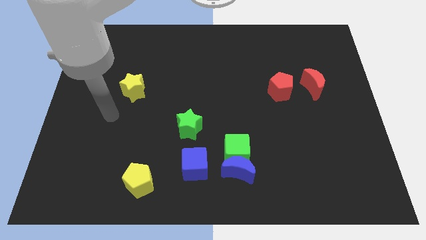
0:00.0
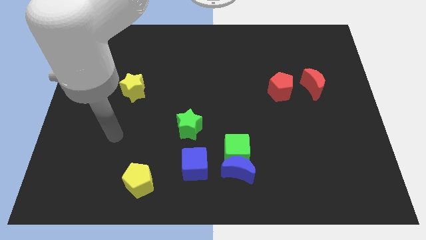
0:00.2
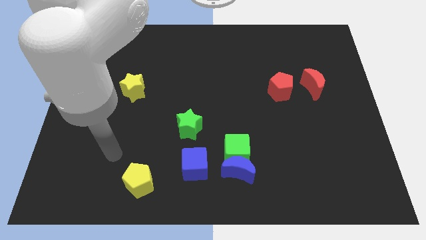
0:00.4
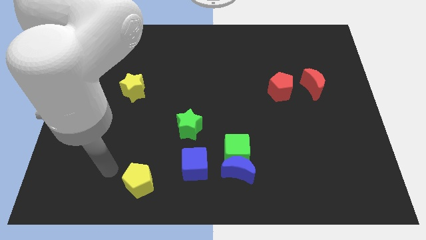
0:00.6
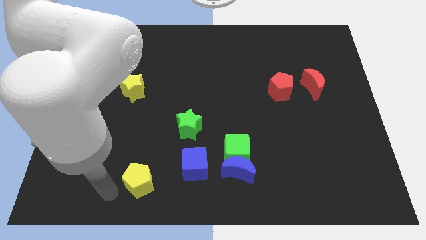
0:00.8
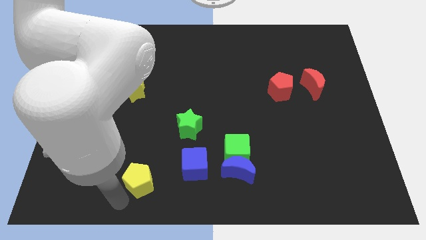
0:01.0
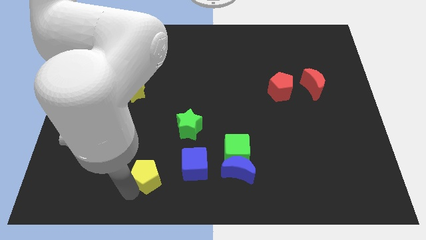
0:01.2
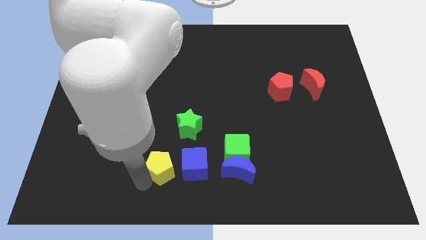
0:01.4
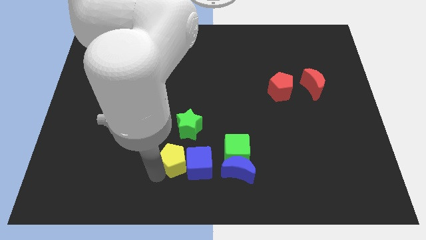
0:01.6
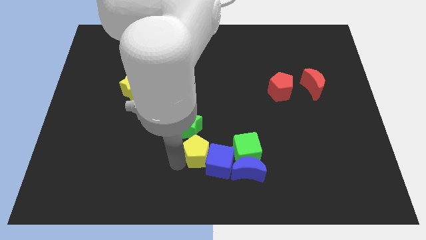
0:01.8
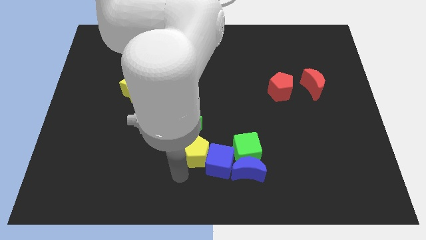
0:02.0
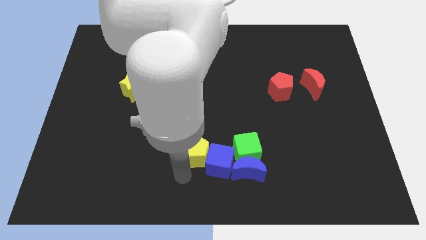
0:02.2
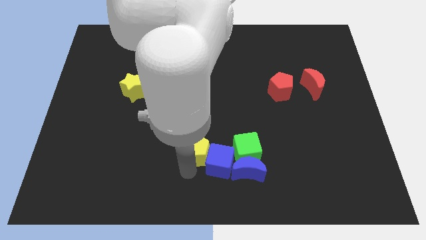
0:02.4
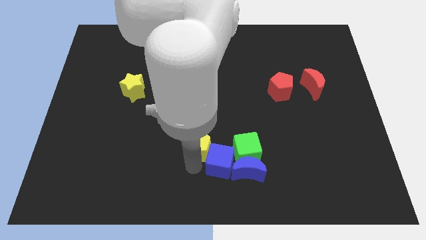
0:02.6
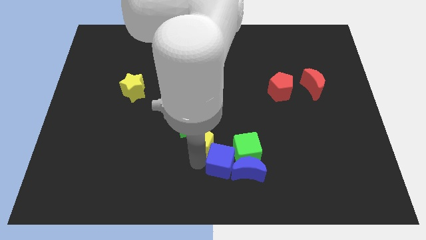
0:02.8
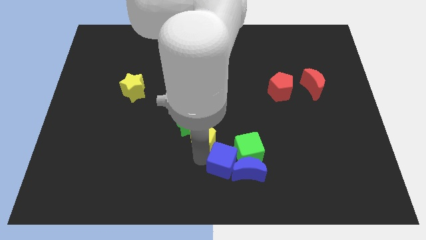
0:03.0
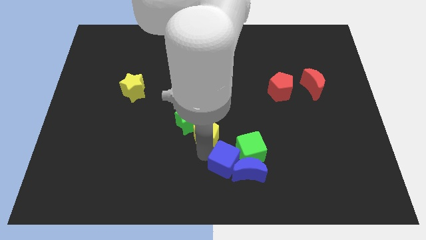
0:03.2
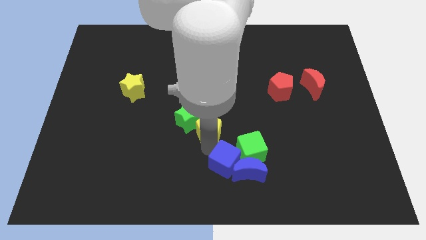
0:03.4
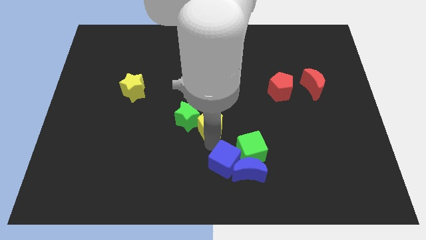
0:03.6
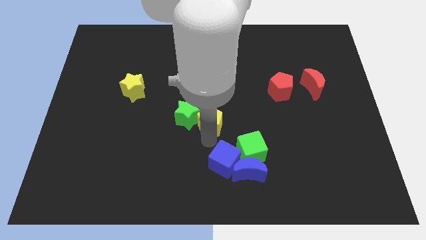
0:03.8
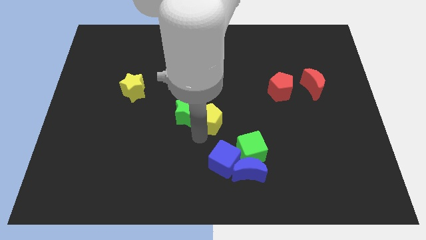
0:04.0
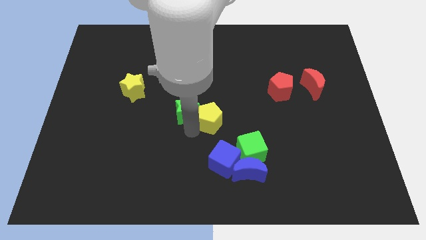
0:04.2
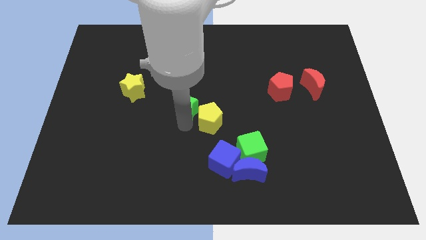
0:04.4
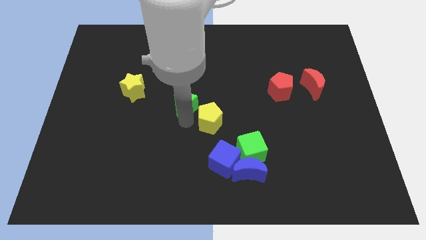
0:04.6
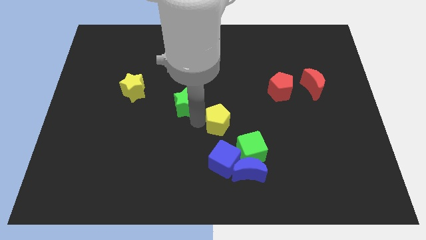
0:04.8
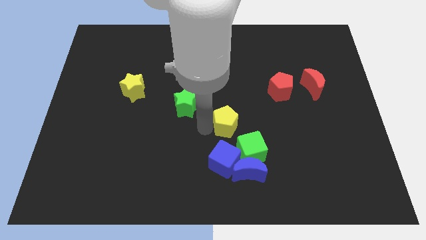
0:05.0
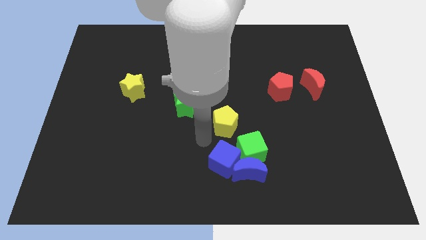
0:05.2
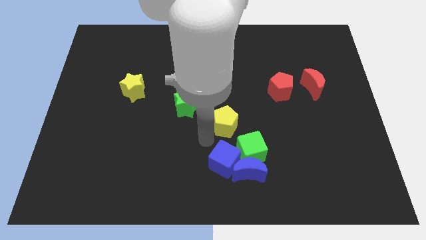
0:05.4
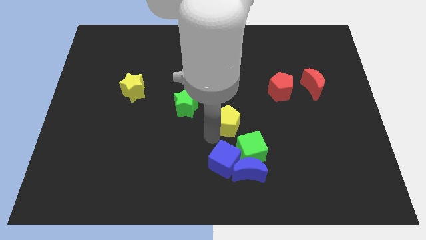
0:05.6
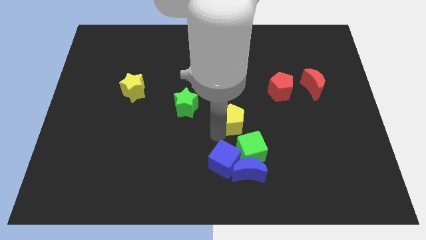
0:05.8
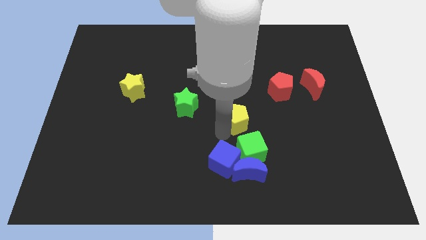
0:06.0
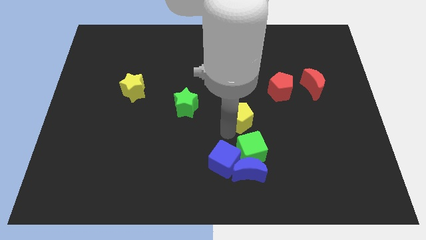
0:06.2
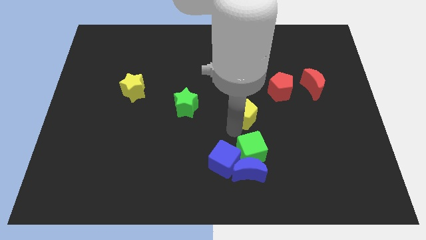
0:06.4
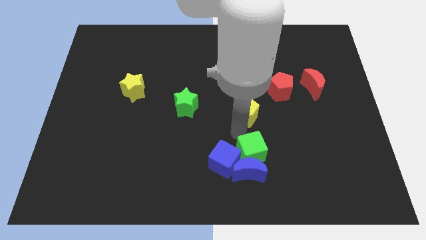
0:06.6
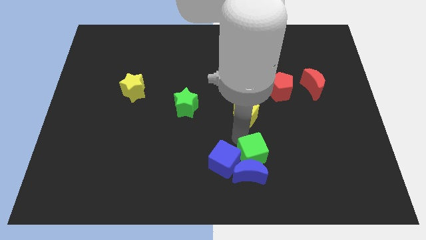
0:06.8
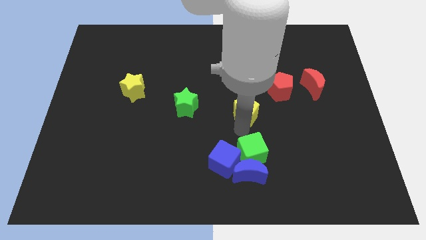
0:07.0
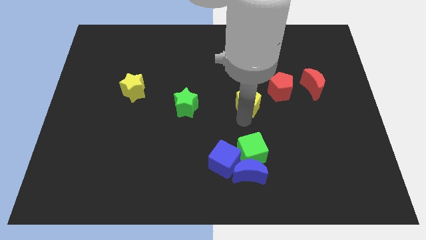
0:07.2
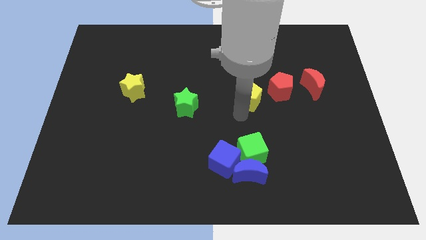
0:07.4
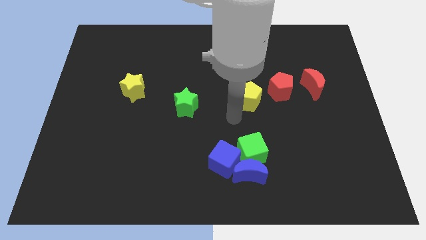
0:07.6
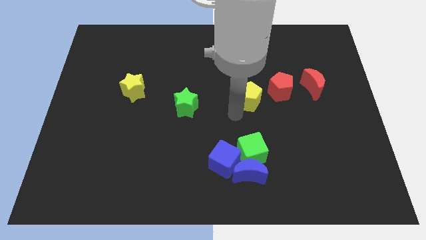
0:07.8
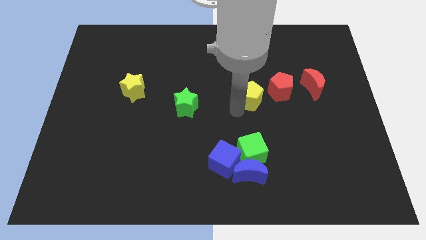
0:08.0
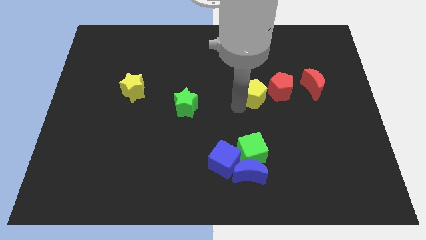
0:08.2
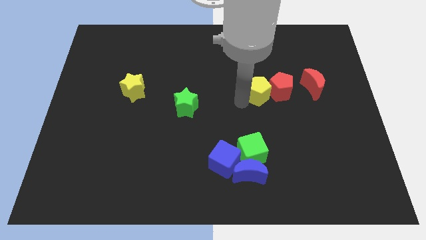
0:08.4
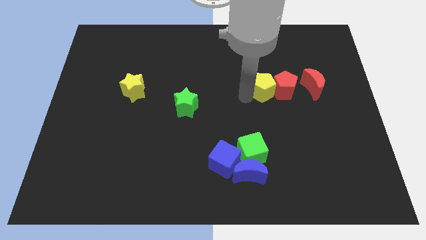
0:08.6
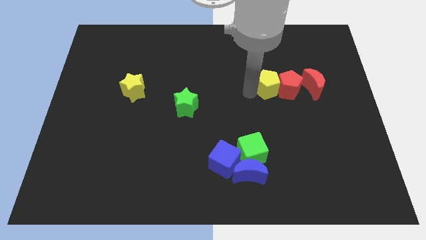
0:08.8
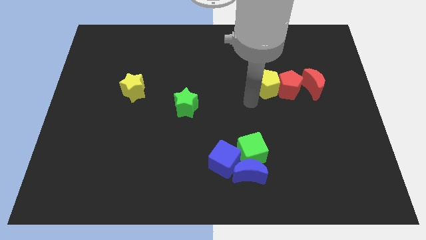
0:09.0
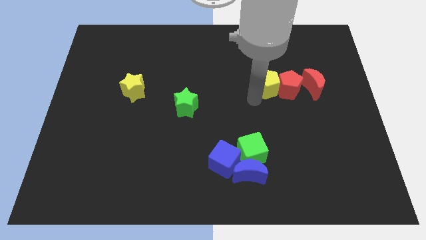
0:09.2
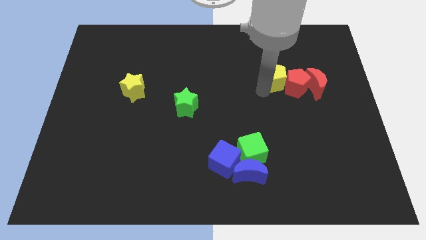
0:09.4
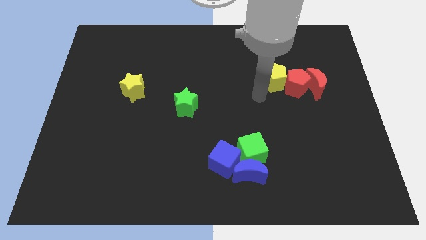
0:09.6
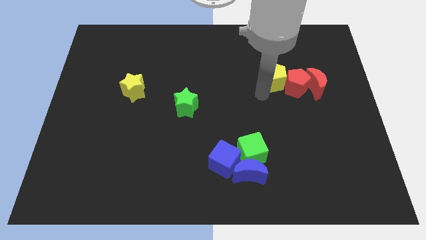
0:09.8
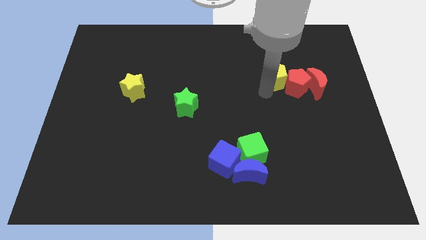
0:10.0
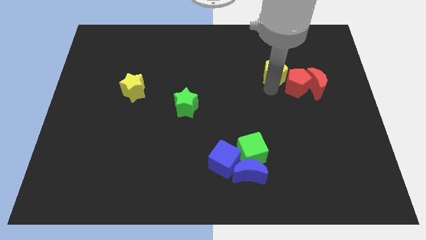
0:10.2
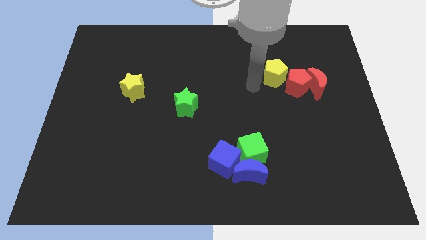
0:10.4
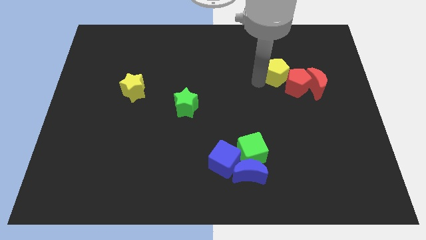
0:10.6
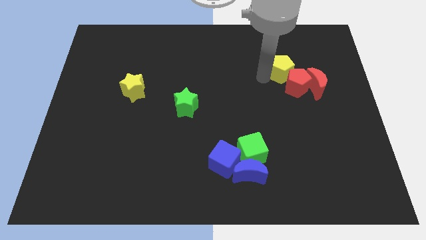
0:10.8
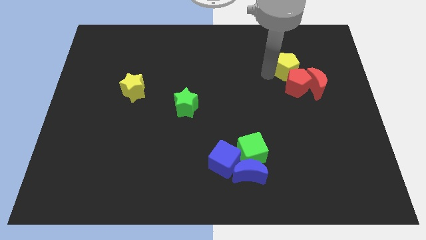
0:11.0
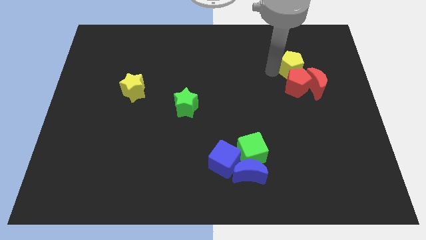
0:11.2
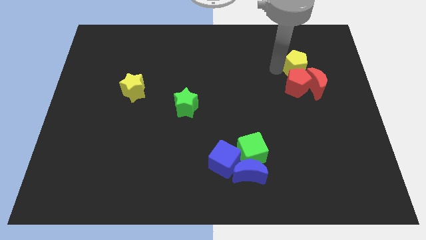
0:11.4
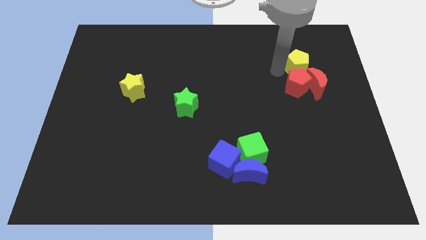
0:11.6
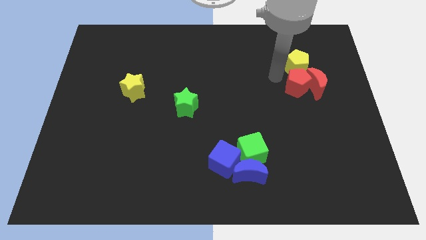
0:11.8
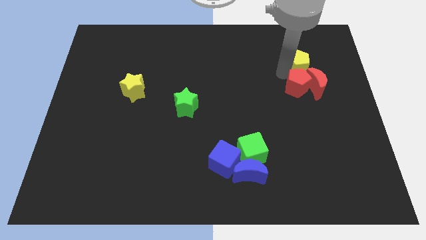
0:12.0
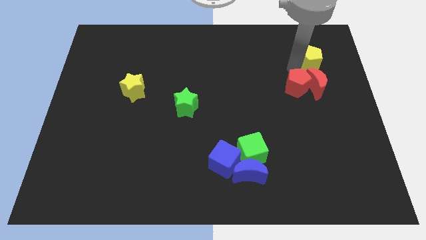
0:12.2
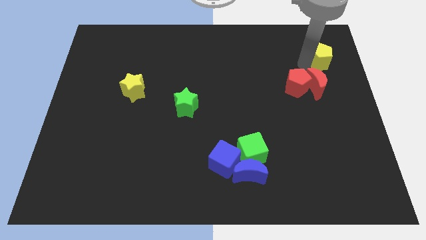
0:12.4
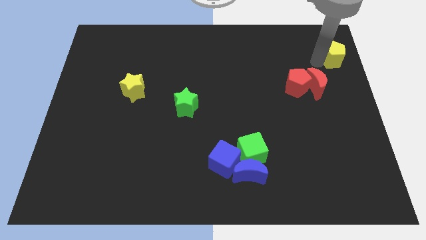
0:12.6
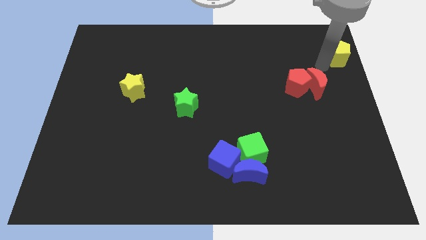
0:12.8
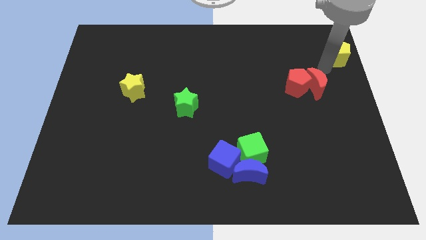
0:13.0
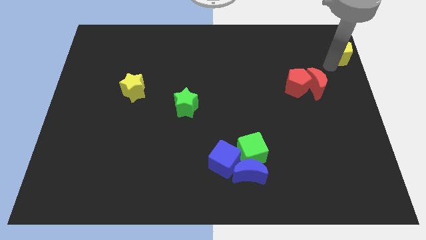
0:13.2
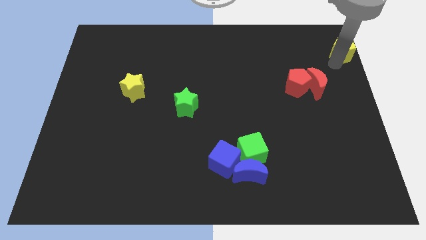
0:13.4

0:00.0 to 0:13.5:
put the yellow pentagon to the top right of the board
